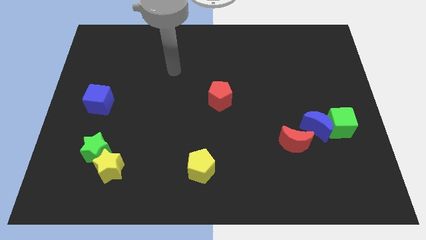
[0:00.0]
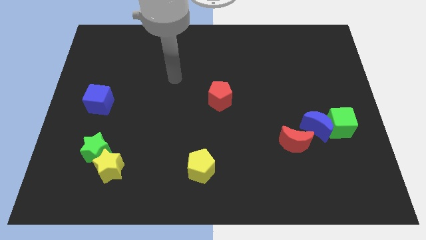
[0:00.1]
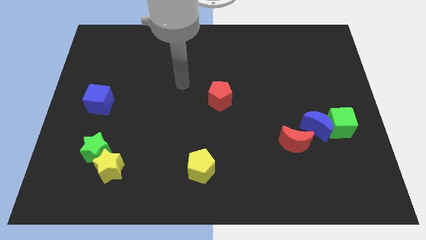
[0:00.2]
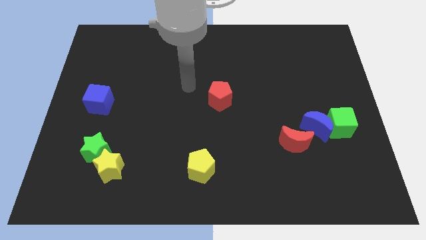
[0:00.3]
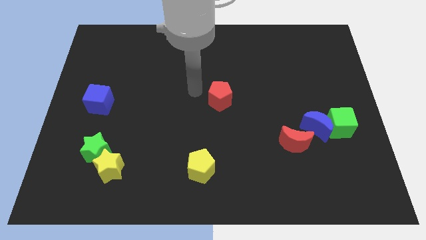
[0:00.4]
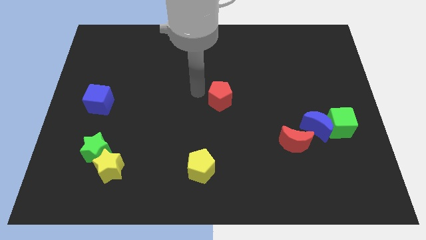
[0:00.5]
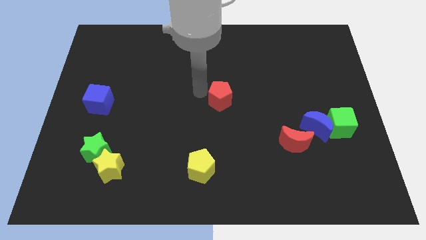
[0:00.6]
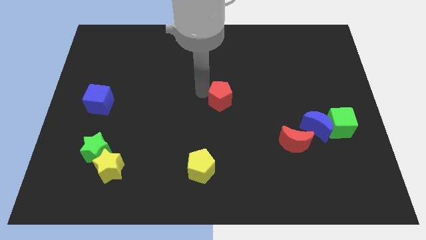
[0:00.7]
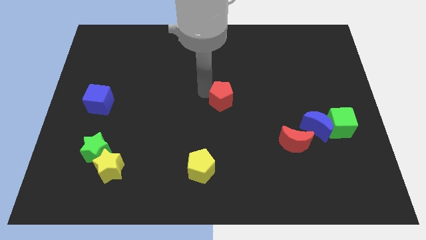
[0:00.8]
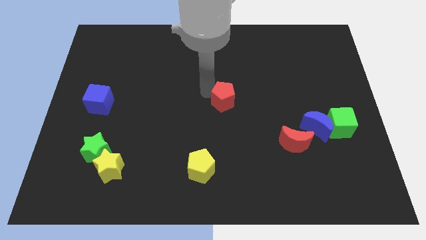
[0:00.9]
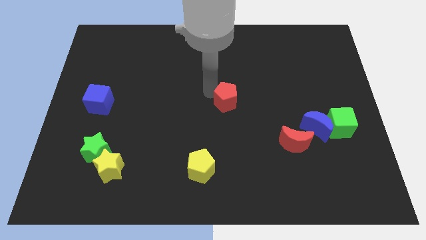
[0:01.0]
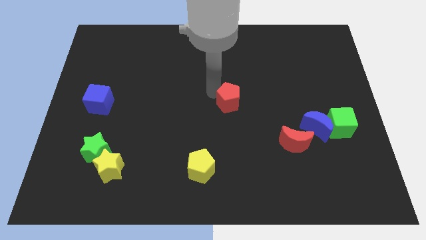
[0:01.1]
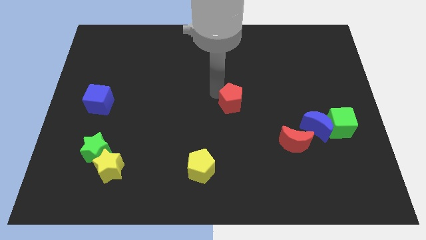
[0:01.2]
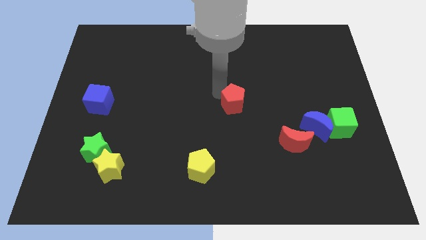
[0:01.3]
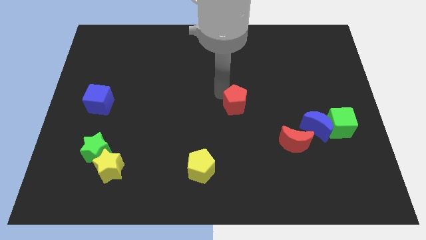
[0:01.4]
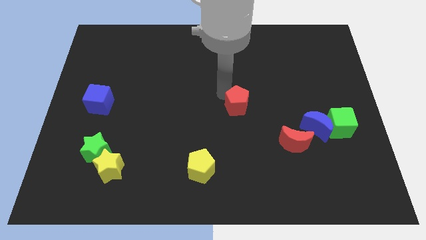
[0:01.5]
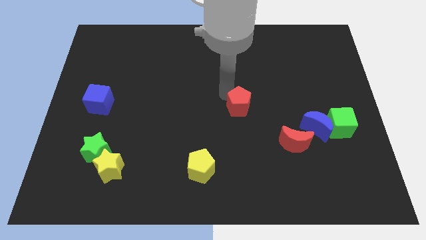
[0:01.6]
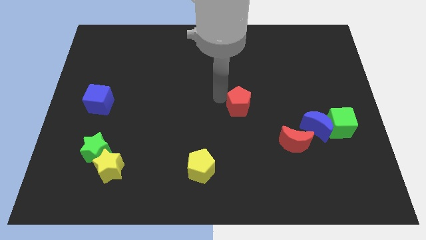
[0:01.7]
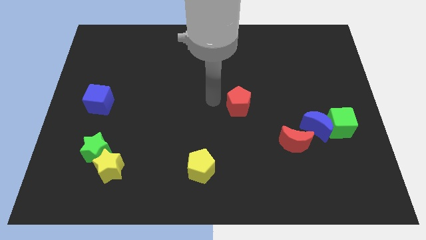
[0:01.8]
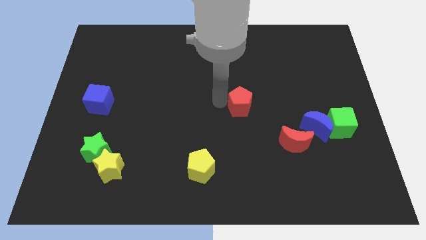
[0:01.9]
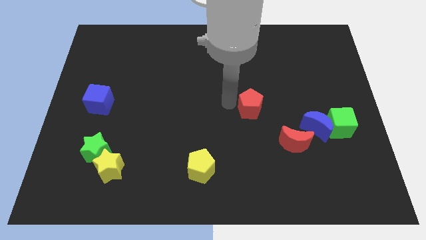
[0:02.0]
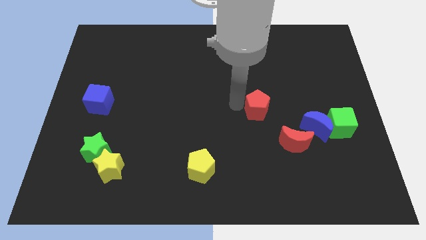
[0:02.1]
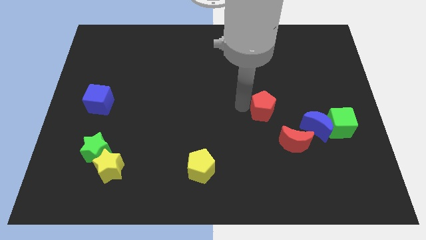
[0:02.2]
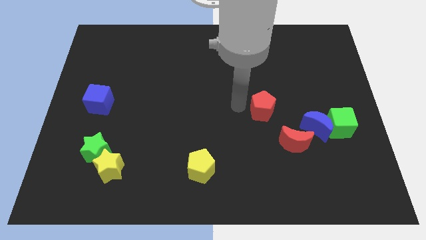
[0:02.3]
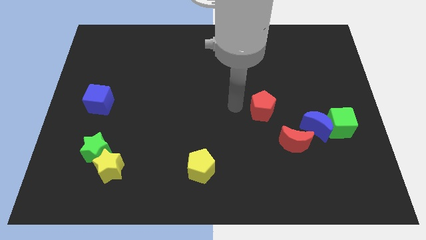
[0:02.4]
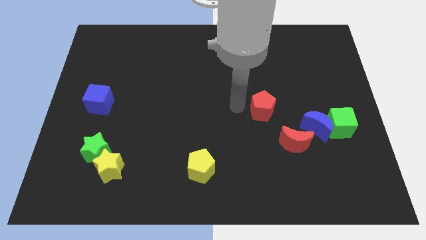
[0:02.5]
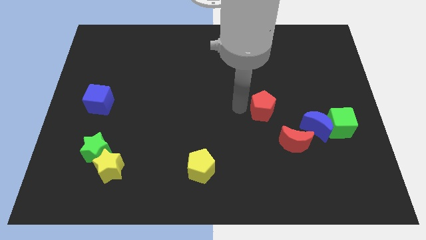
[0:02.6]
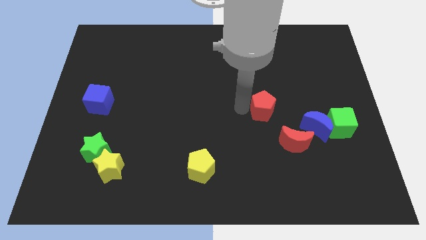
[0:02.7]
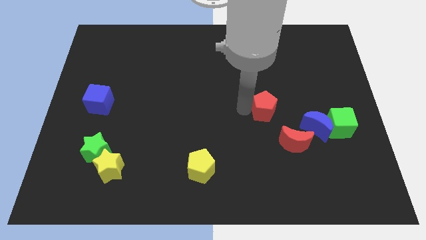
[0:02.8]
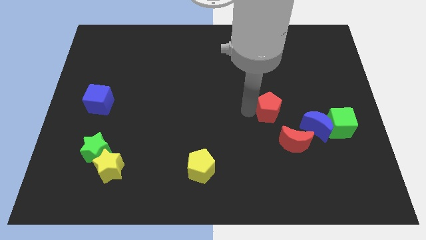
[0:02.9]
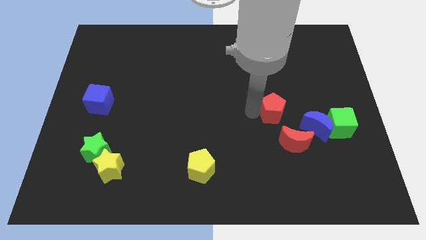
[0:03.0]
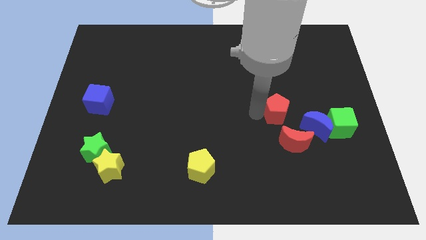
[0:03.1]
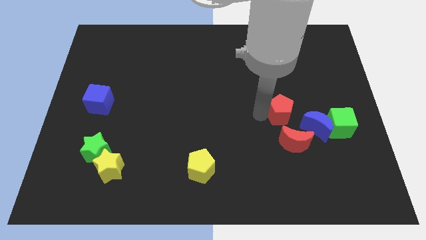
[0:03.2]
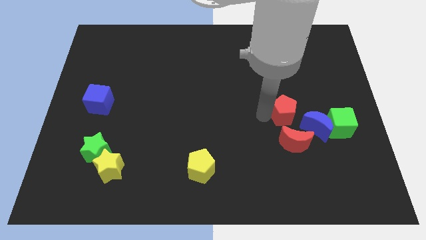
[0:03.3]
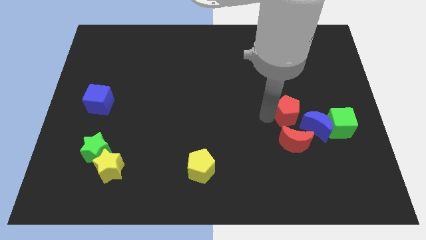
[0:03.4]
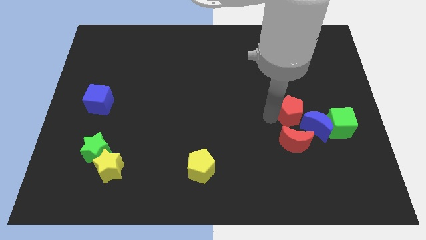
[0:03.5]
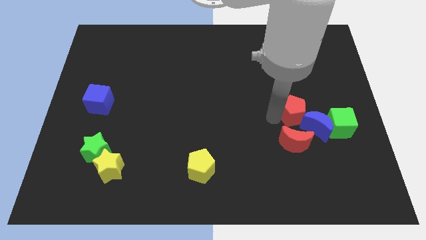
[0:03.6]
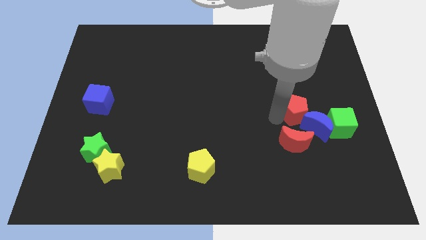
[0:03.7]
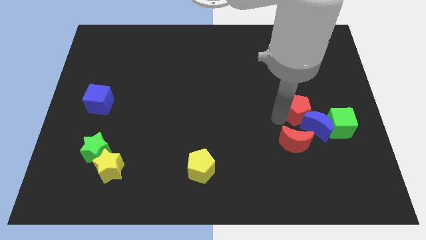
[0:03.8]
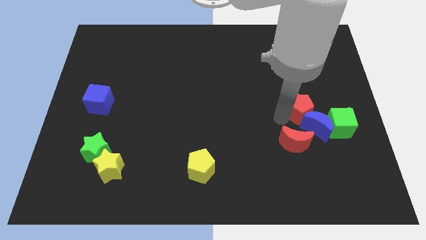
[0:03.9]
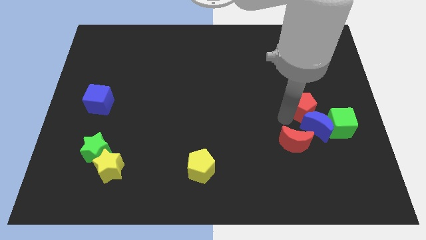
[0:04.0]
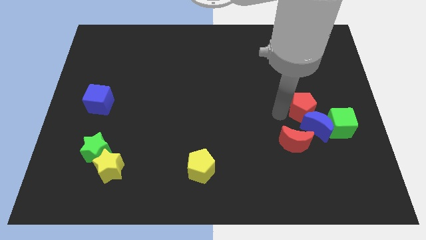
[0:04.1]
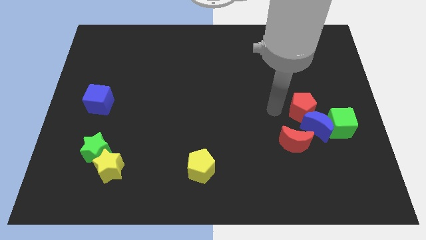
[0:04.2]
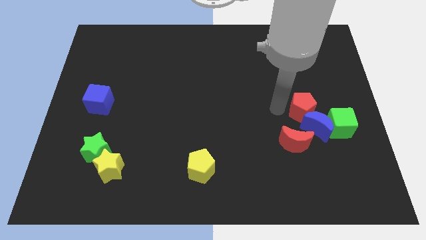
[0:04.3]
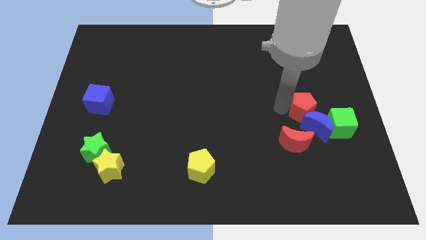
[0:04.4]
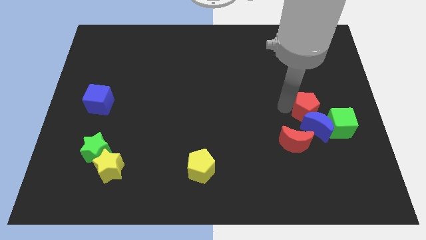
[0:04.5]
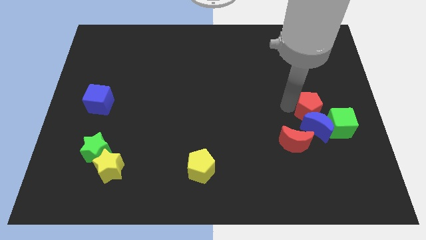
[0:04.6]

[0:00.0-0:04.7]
push the red pentagon to the top right side of the blue moon

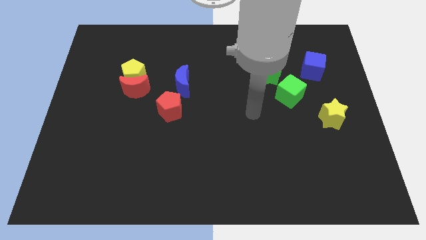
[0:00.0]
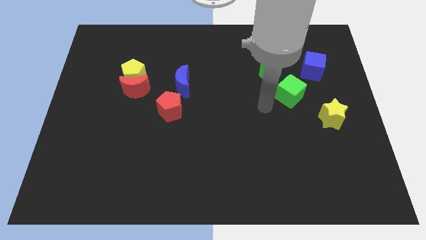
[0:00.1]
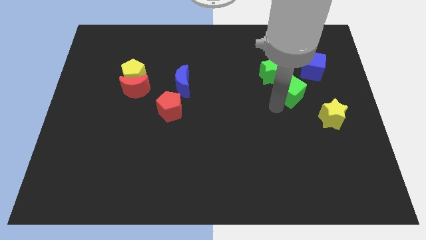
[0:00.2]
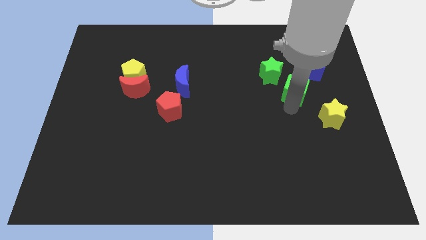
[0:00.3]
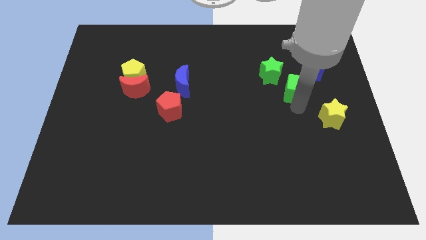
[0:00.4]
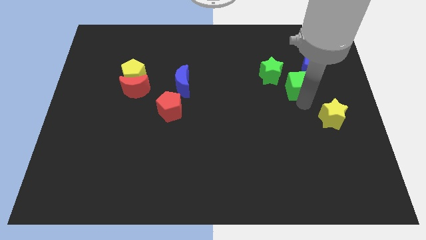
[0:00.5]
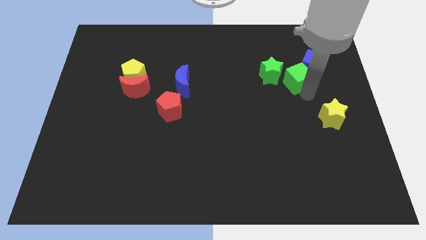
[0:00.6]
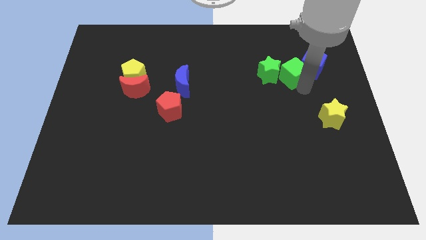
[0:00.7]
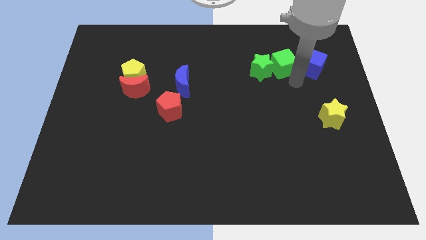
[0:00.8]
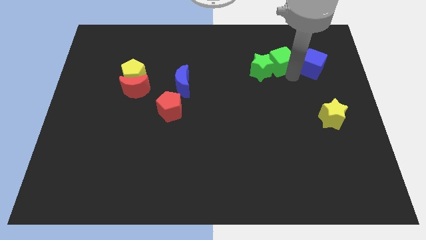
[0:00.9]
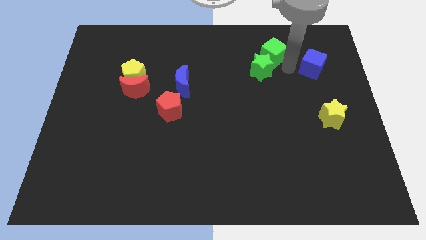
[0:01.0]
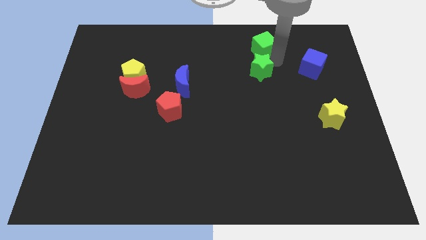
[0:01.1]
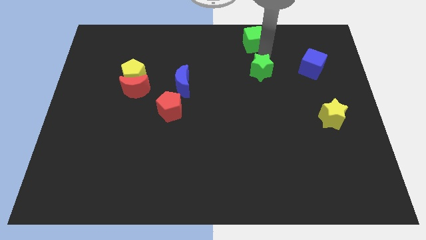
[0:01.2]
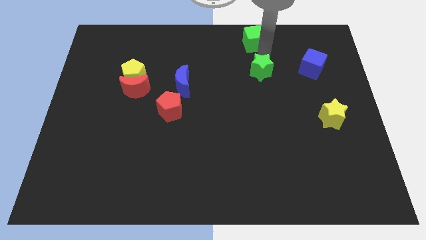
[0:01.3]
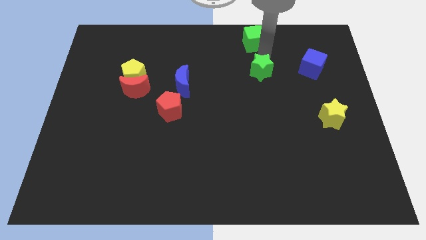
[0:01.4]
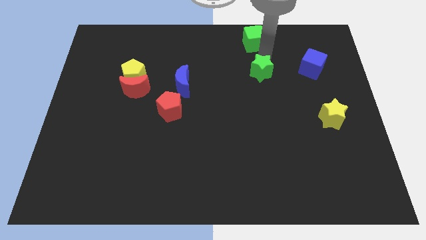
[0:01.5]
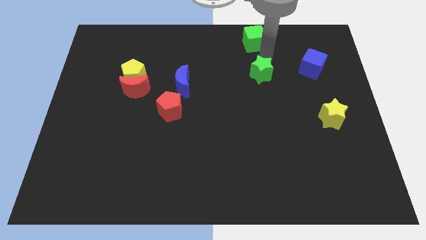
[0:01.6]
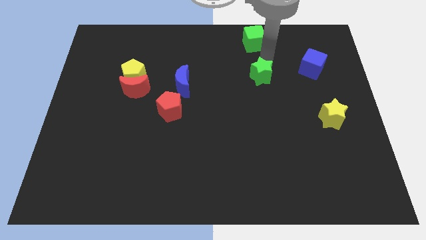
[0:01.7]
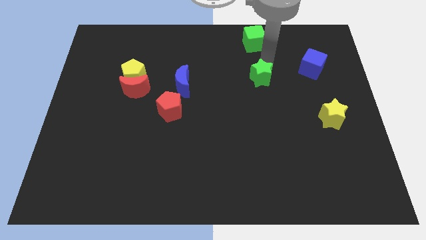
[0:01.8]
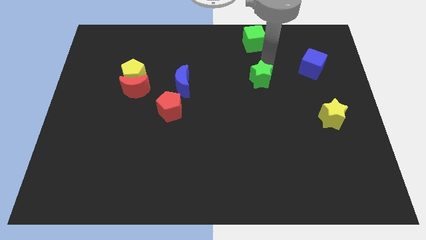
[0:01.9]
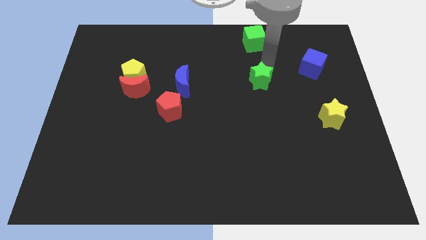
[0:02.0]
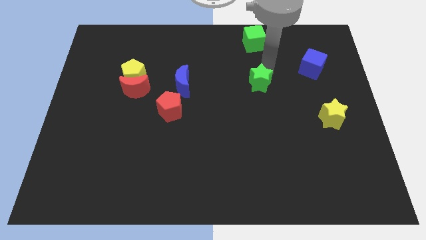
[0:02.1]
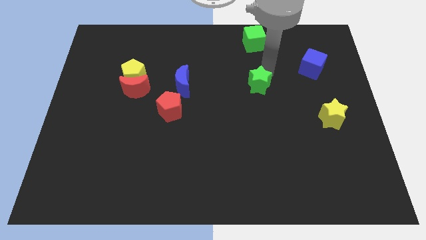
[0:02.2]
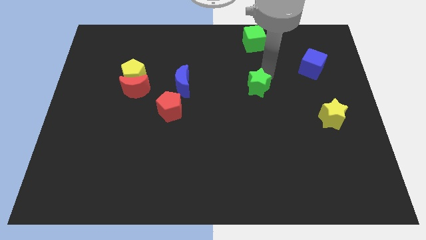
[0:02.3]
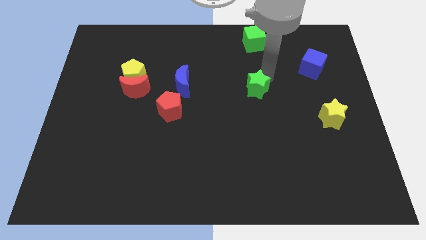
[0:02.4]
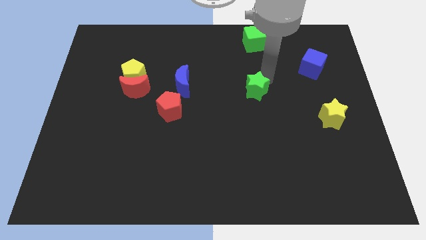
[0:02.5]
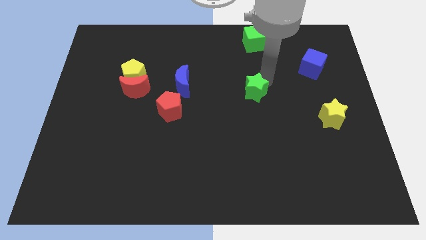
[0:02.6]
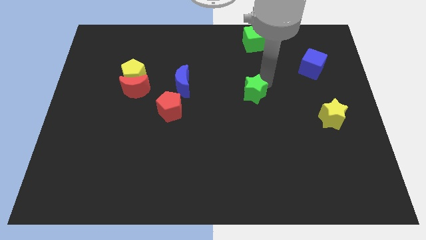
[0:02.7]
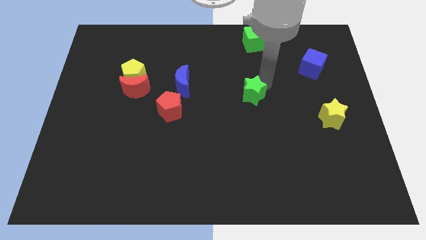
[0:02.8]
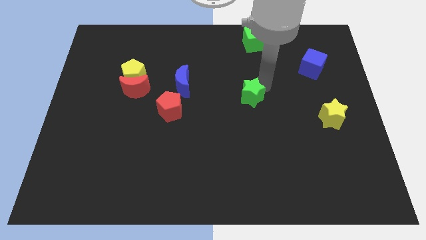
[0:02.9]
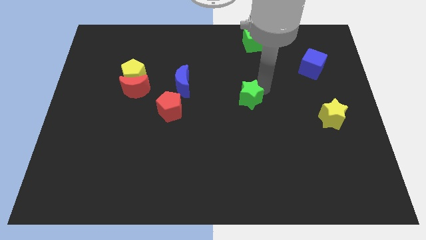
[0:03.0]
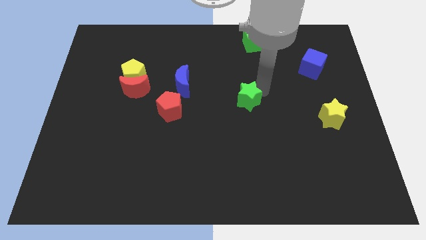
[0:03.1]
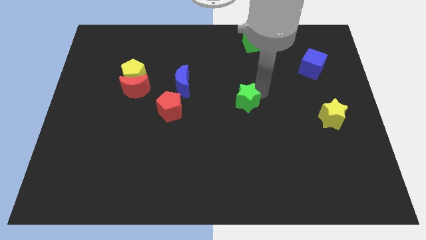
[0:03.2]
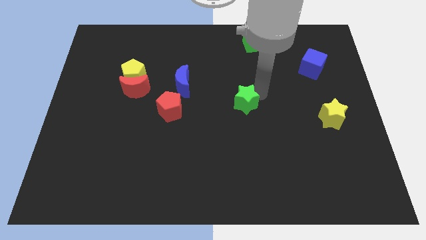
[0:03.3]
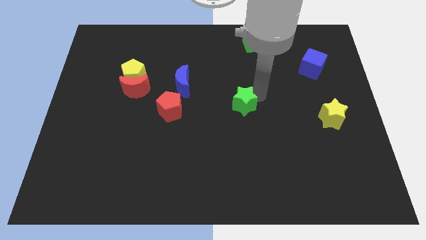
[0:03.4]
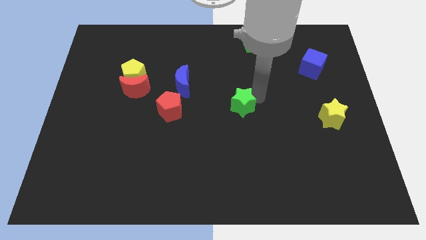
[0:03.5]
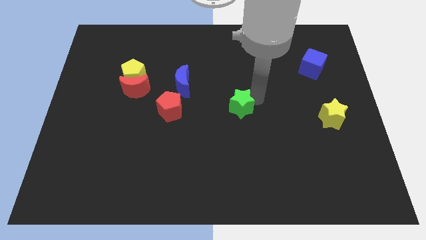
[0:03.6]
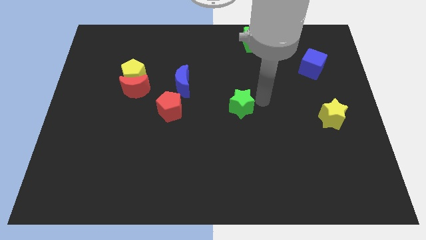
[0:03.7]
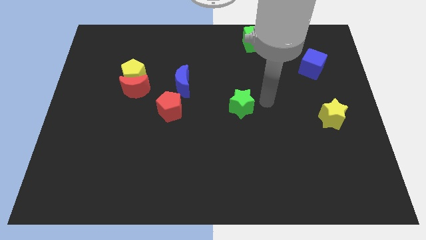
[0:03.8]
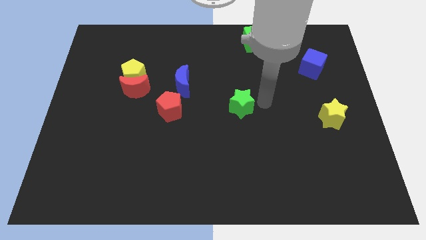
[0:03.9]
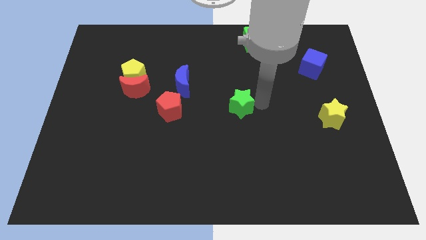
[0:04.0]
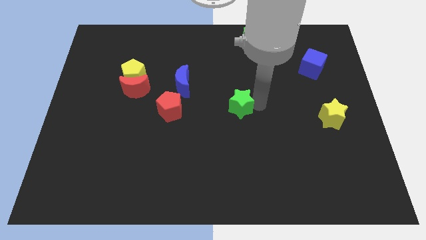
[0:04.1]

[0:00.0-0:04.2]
slide the green star to the right side of the red pentagon
